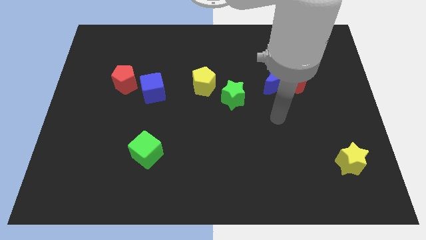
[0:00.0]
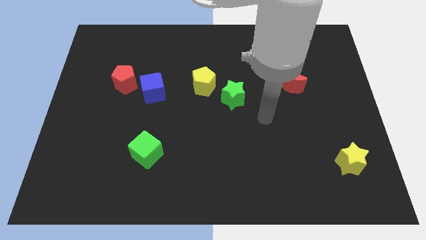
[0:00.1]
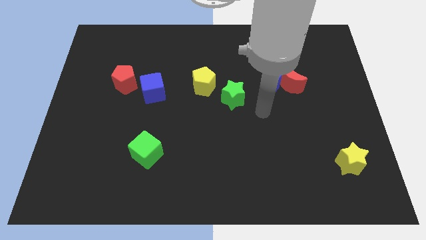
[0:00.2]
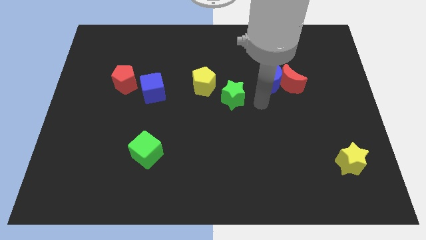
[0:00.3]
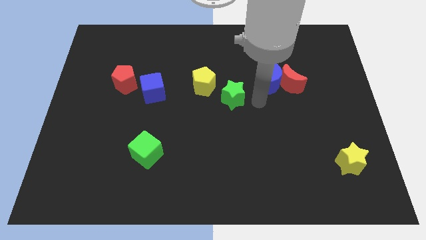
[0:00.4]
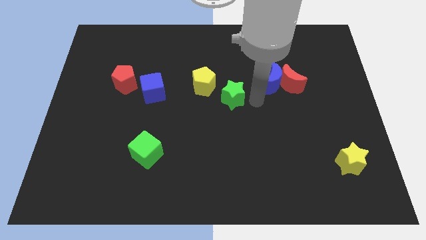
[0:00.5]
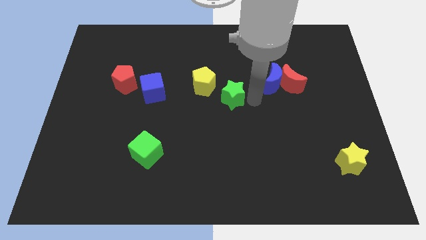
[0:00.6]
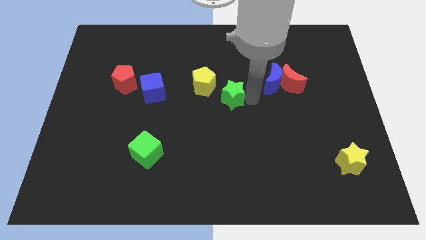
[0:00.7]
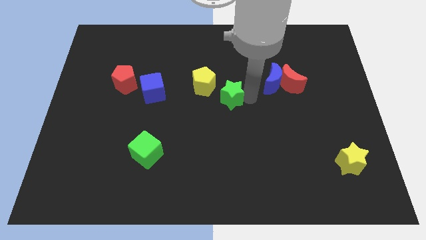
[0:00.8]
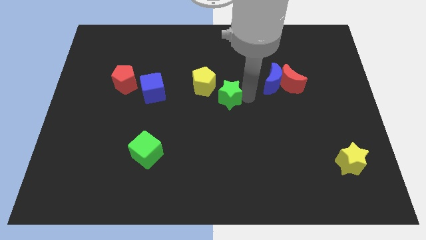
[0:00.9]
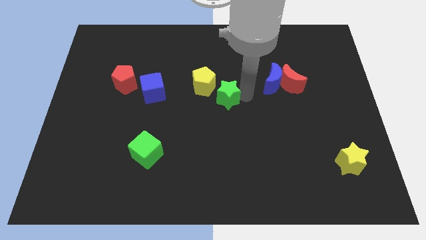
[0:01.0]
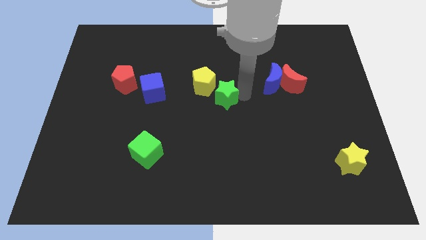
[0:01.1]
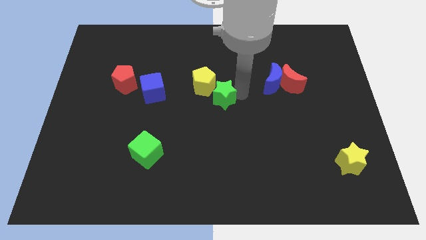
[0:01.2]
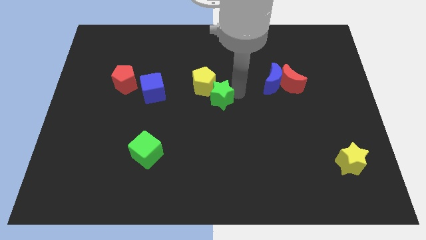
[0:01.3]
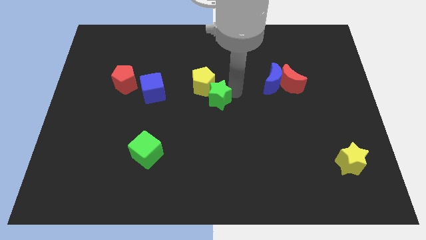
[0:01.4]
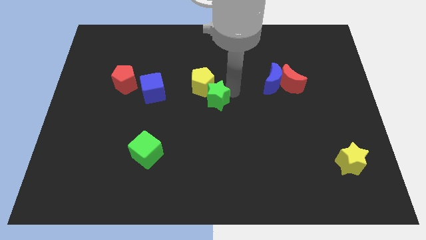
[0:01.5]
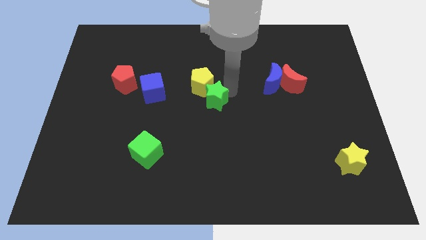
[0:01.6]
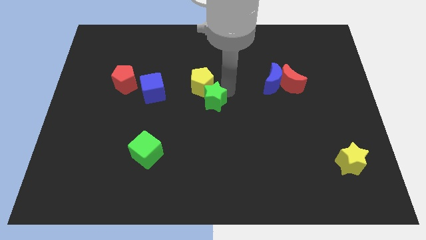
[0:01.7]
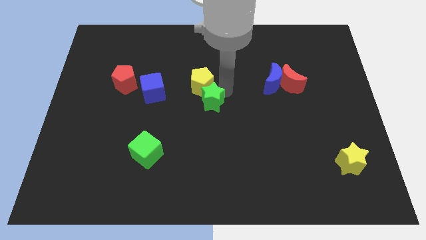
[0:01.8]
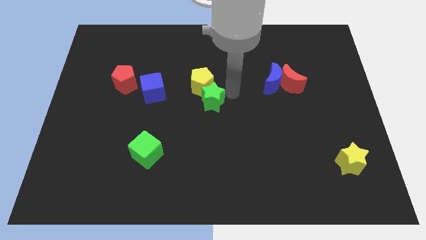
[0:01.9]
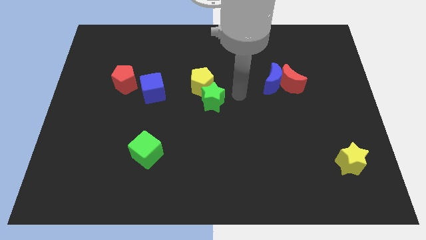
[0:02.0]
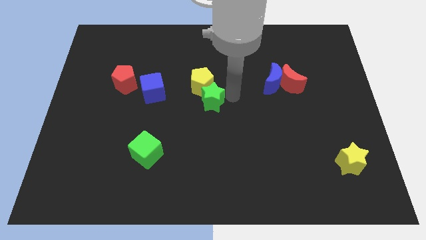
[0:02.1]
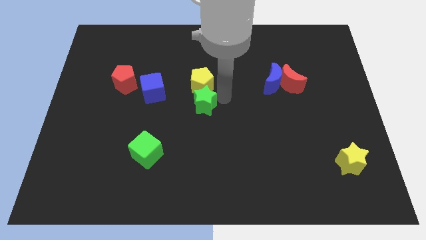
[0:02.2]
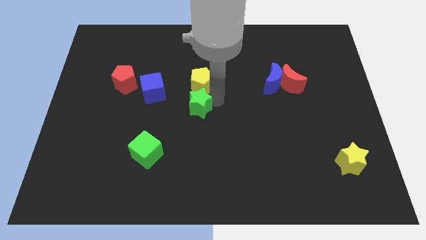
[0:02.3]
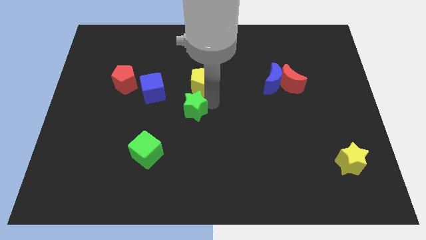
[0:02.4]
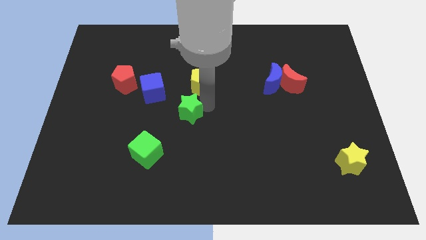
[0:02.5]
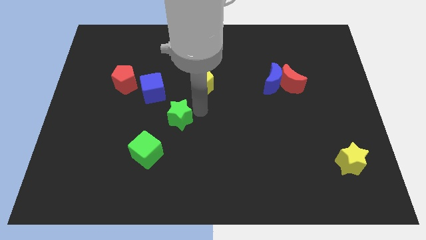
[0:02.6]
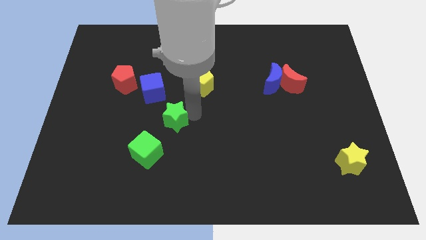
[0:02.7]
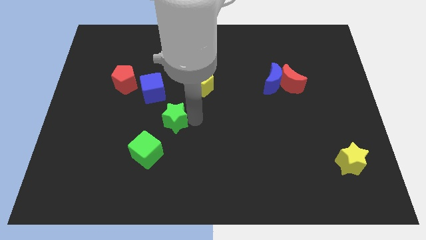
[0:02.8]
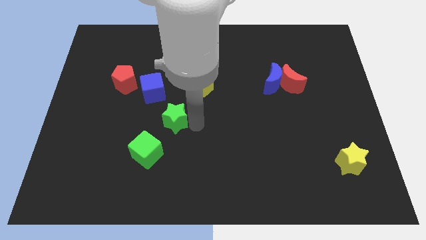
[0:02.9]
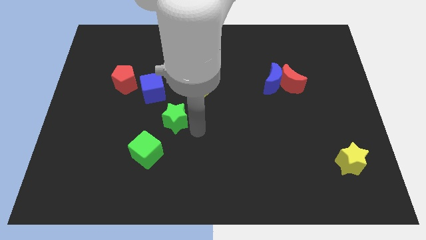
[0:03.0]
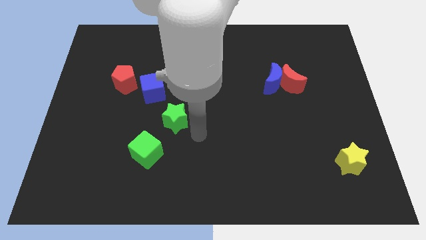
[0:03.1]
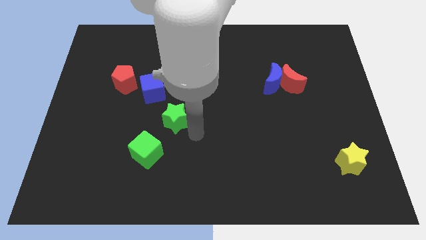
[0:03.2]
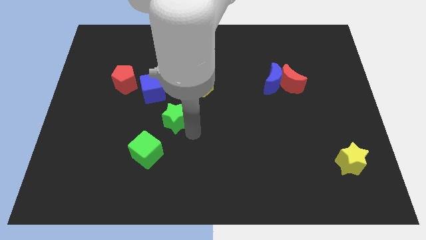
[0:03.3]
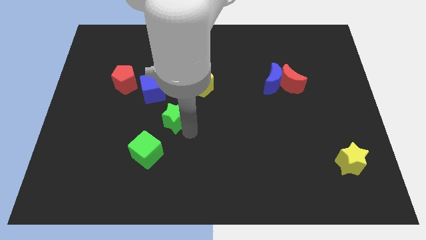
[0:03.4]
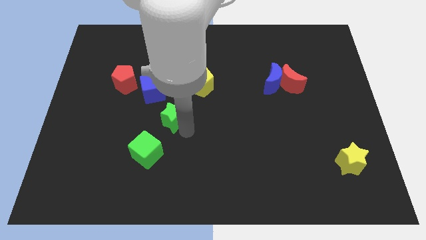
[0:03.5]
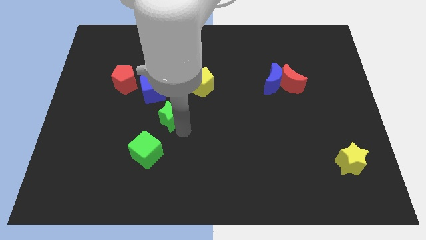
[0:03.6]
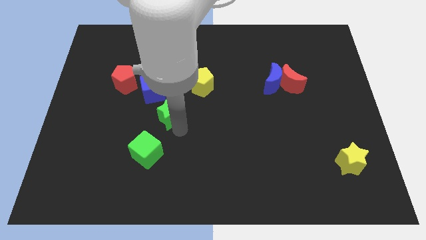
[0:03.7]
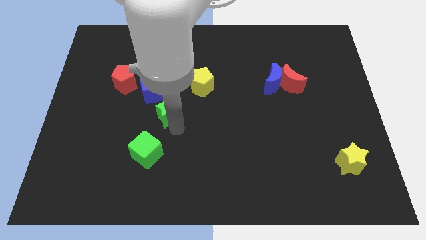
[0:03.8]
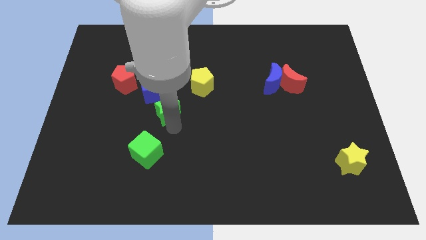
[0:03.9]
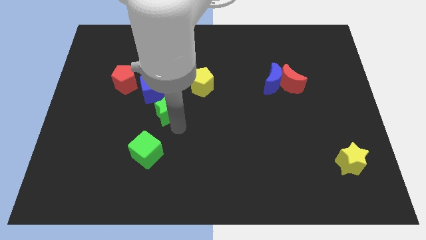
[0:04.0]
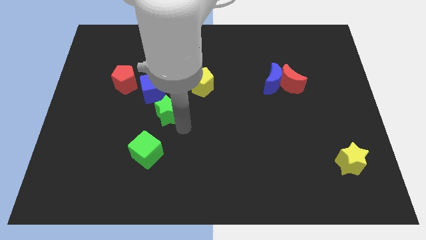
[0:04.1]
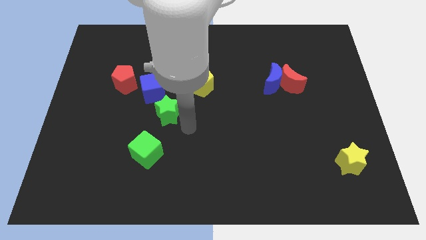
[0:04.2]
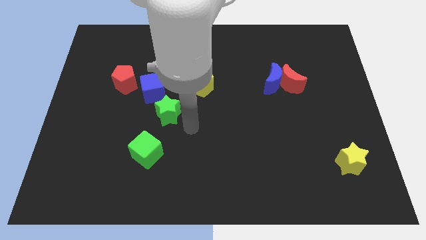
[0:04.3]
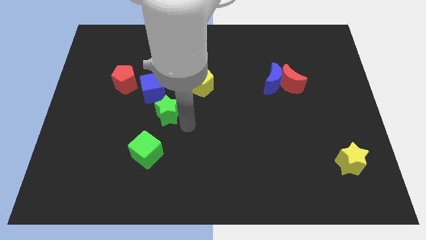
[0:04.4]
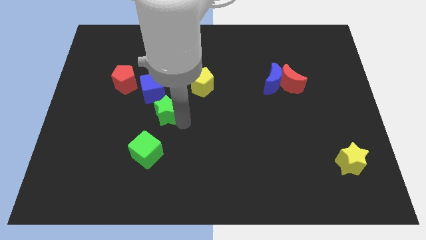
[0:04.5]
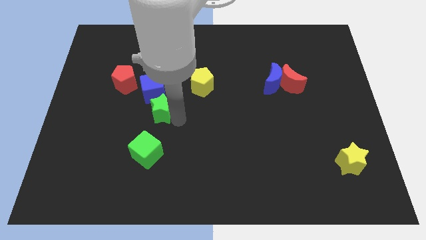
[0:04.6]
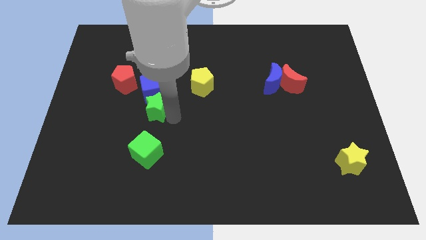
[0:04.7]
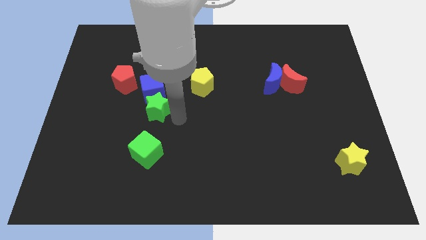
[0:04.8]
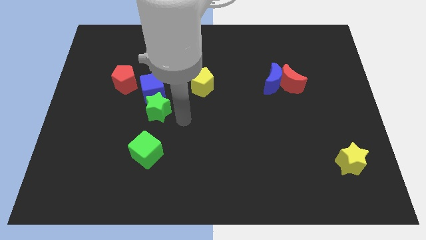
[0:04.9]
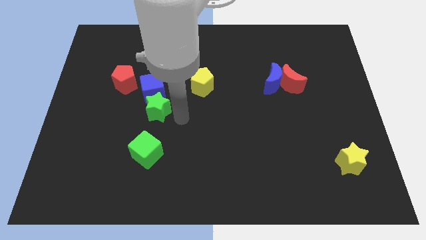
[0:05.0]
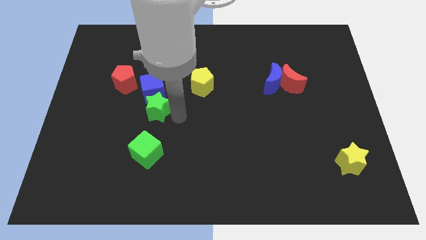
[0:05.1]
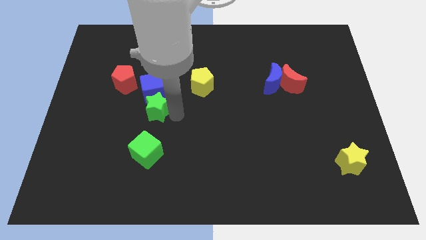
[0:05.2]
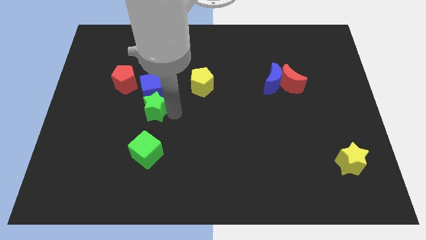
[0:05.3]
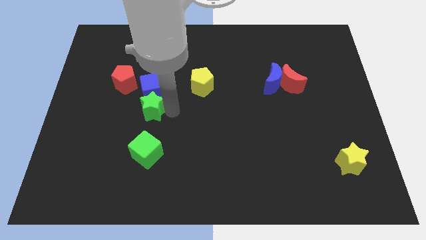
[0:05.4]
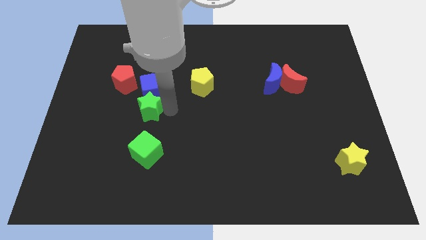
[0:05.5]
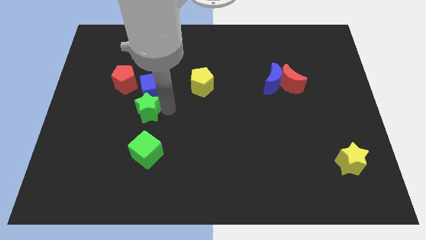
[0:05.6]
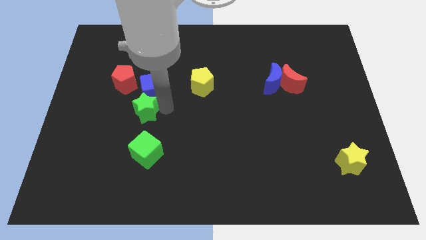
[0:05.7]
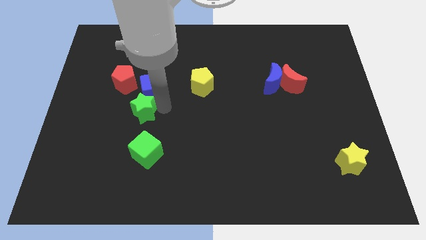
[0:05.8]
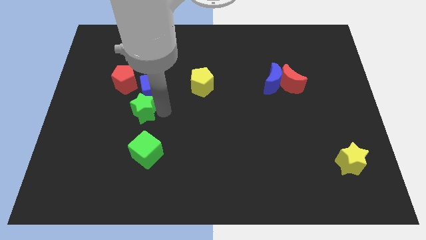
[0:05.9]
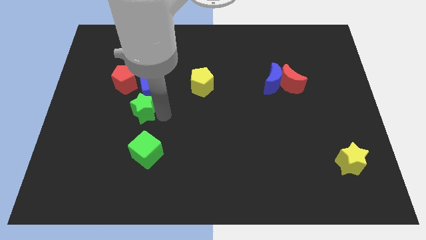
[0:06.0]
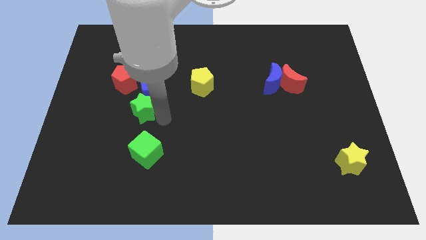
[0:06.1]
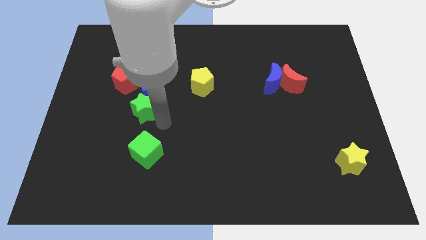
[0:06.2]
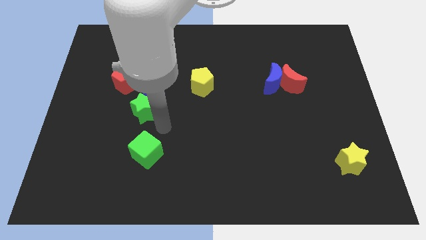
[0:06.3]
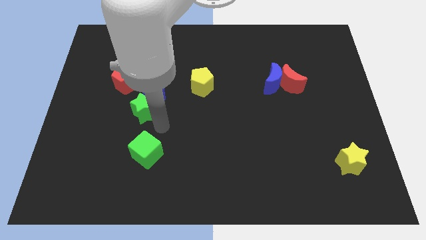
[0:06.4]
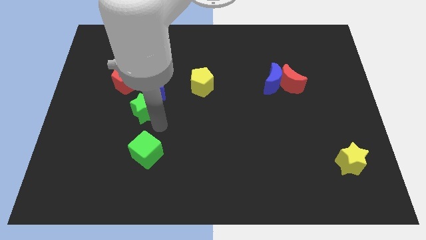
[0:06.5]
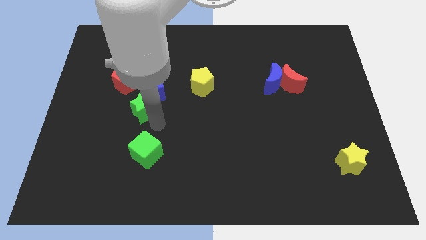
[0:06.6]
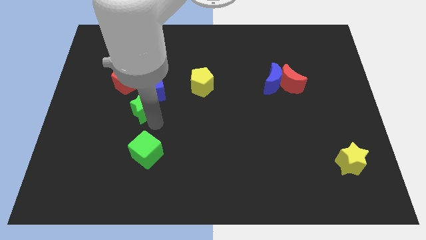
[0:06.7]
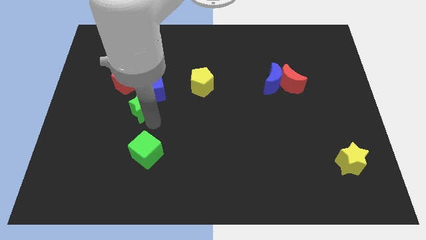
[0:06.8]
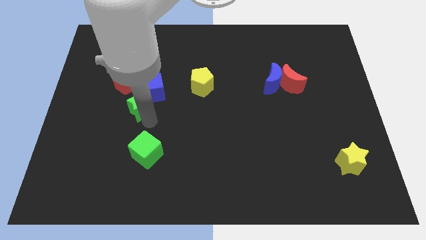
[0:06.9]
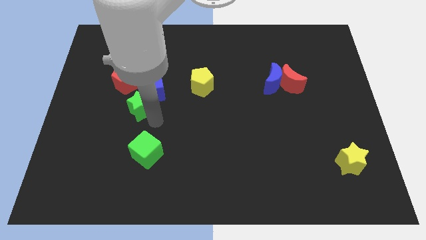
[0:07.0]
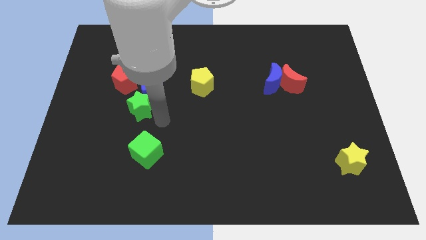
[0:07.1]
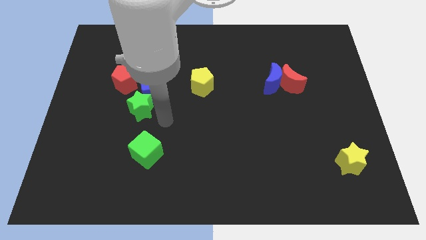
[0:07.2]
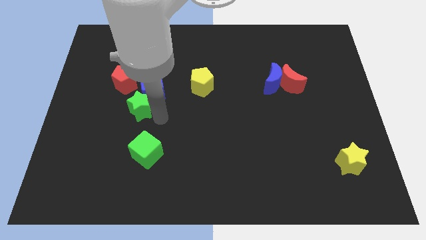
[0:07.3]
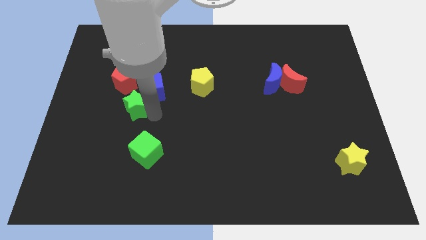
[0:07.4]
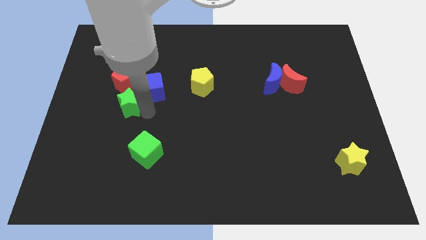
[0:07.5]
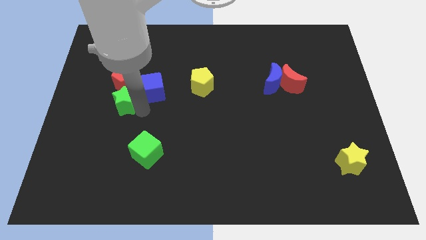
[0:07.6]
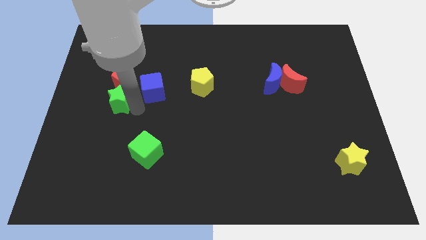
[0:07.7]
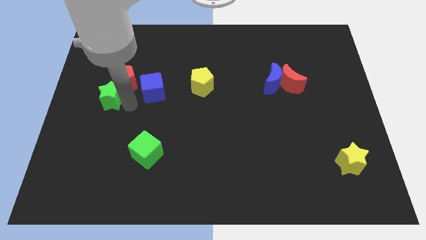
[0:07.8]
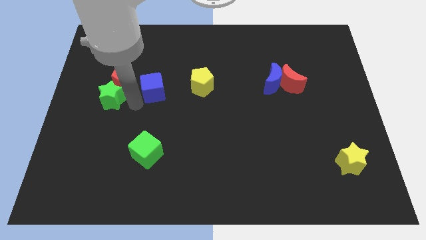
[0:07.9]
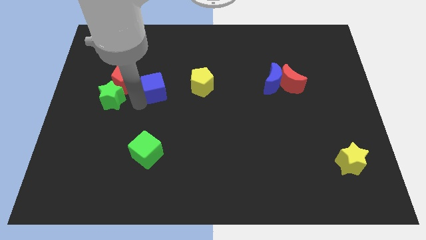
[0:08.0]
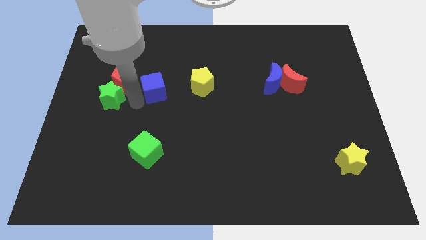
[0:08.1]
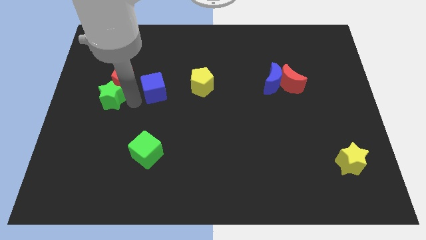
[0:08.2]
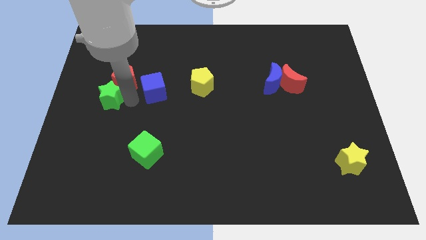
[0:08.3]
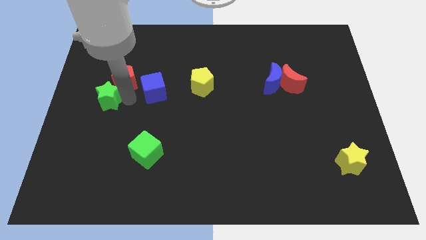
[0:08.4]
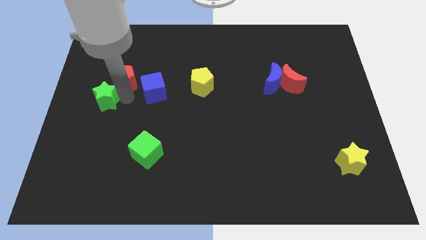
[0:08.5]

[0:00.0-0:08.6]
push the green star to the left side
